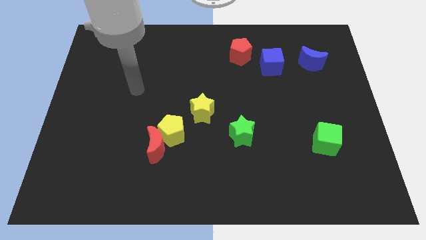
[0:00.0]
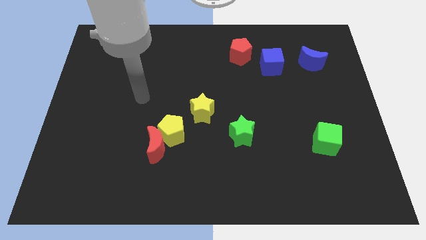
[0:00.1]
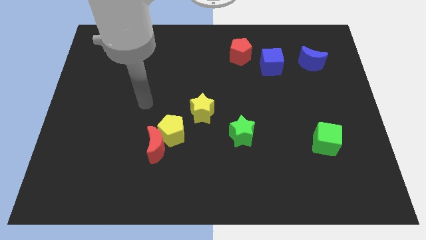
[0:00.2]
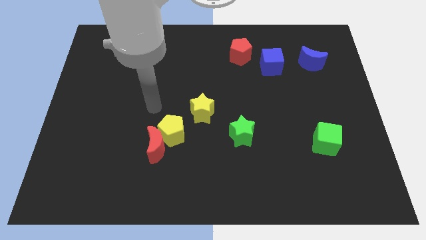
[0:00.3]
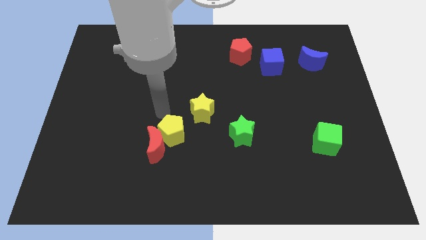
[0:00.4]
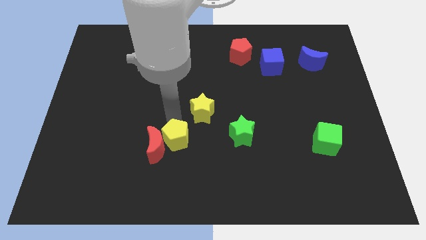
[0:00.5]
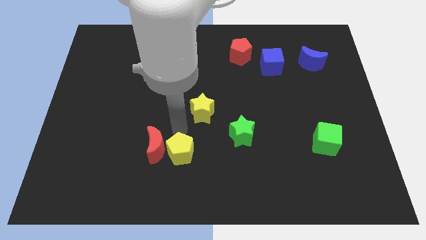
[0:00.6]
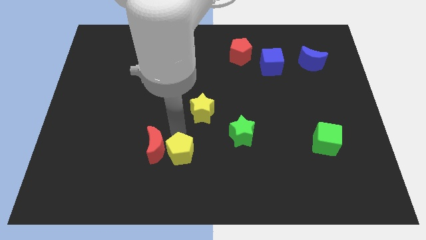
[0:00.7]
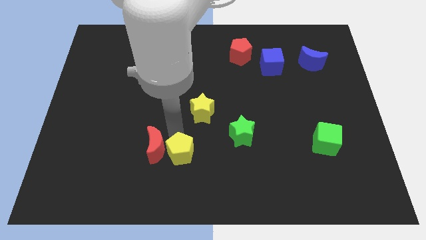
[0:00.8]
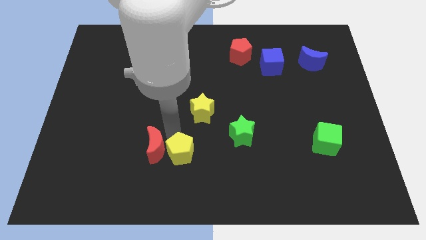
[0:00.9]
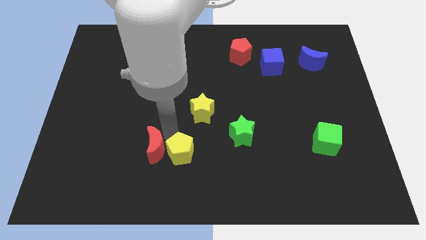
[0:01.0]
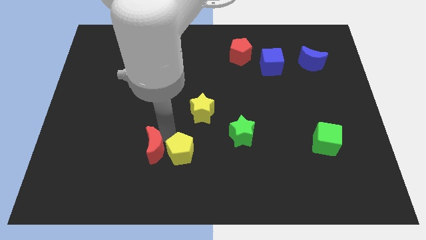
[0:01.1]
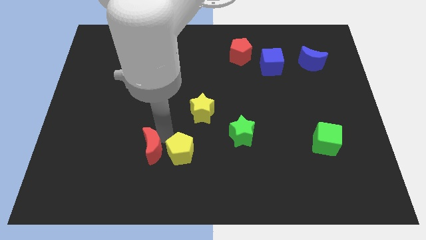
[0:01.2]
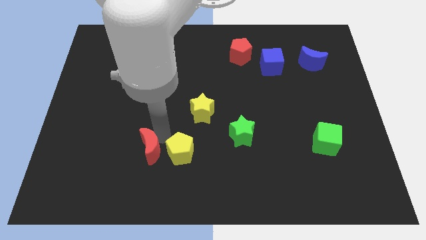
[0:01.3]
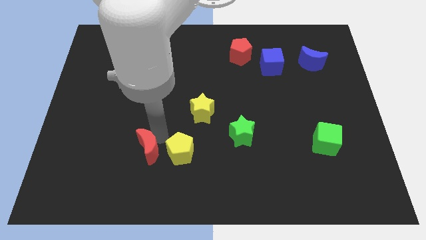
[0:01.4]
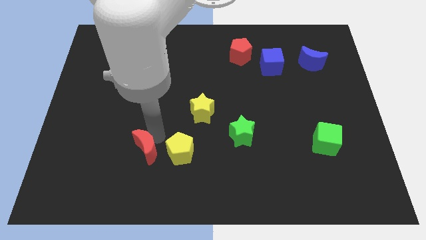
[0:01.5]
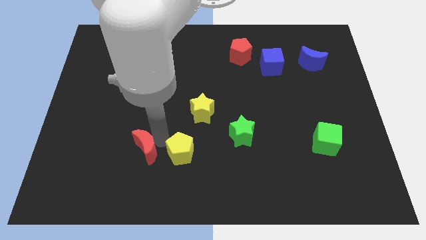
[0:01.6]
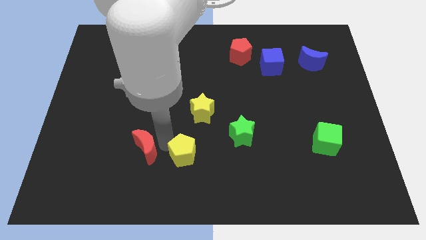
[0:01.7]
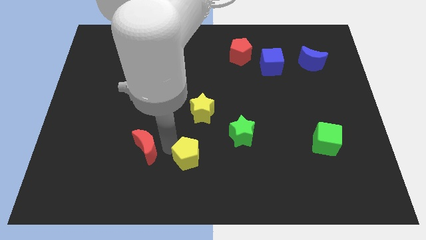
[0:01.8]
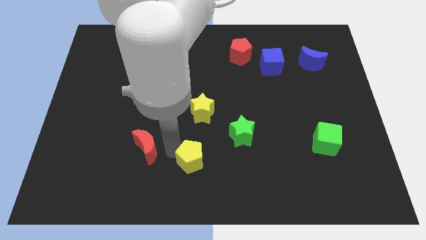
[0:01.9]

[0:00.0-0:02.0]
separate the red moon from the yellow pentagon

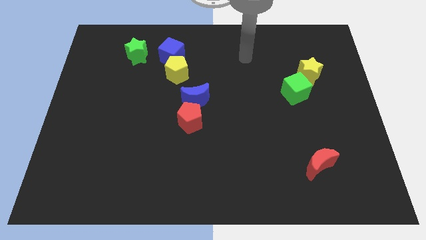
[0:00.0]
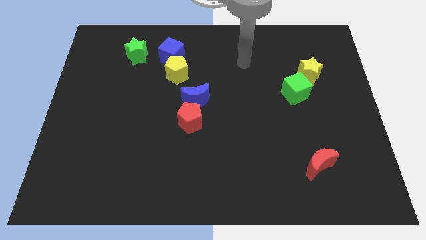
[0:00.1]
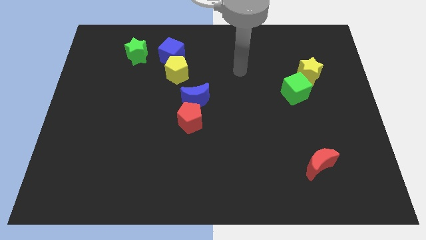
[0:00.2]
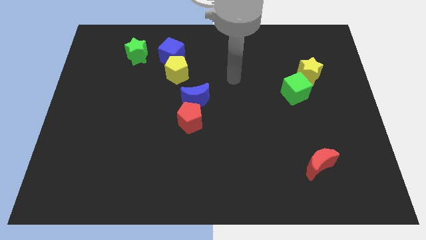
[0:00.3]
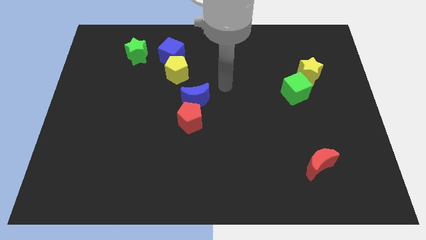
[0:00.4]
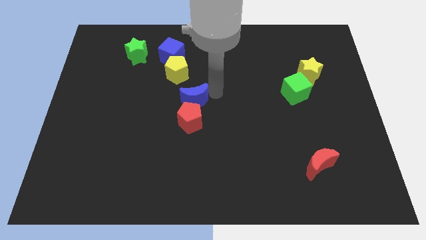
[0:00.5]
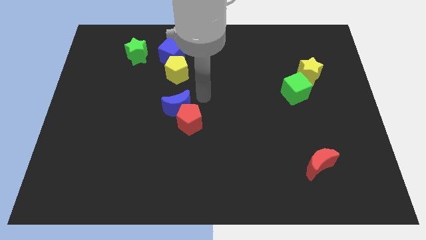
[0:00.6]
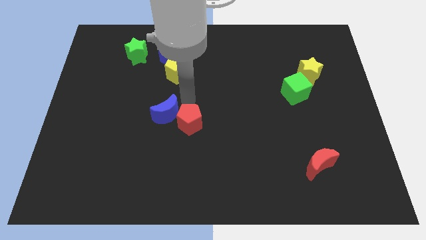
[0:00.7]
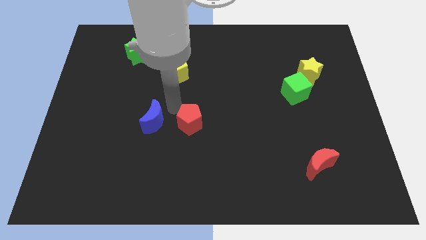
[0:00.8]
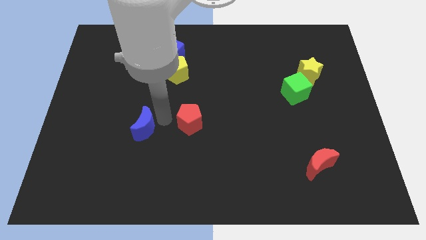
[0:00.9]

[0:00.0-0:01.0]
move the red pentagon away from the blue moon

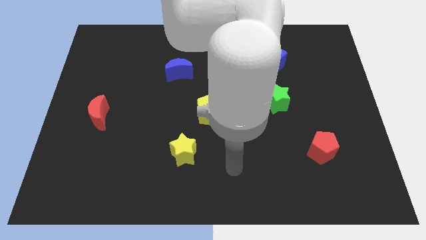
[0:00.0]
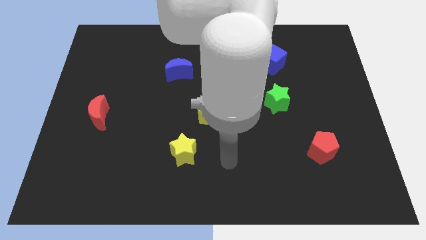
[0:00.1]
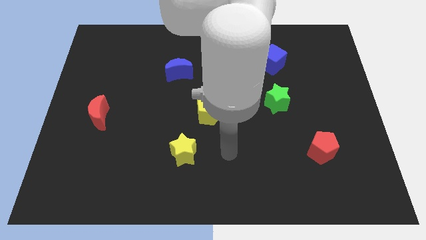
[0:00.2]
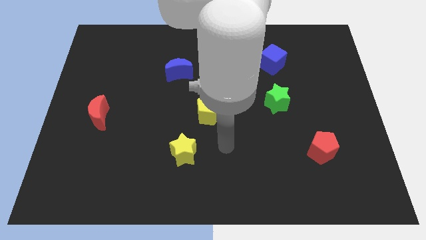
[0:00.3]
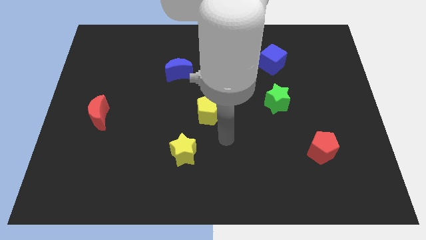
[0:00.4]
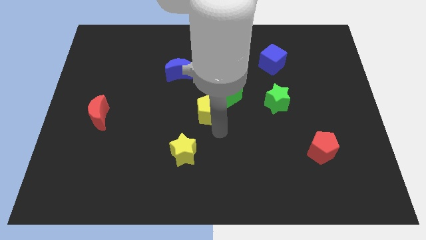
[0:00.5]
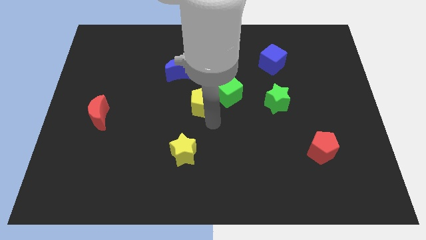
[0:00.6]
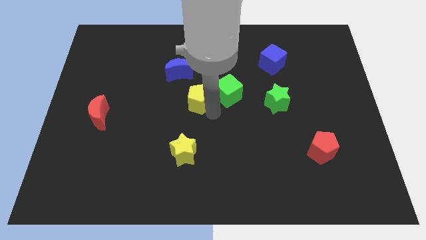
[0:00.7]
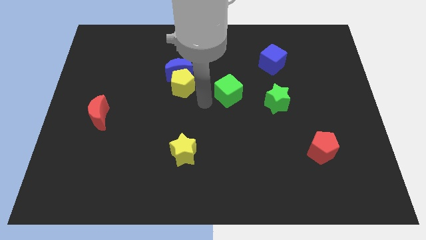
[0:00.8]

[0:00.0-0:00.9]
move the green cube away from the yellow pentagon

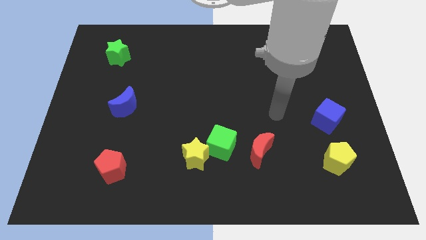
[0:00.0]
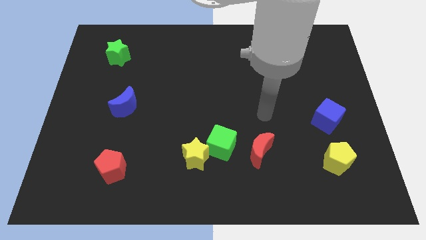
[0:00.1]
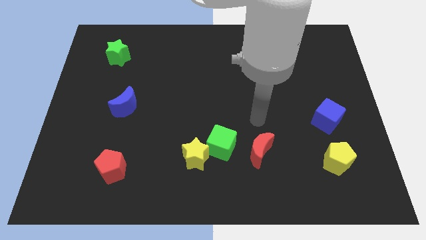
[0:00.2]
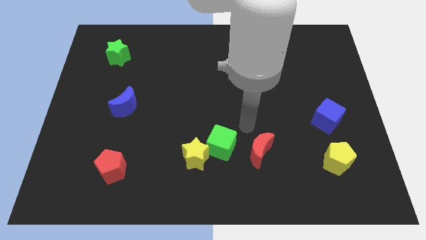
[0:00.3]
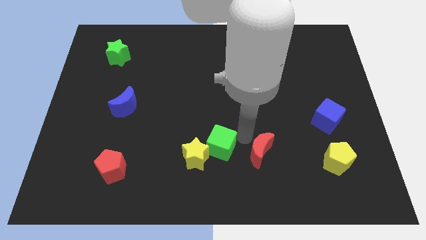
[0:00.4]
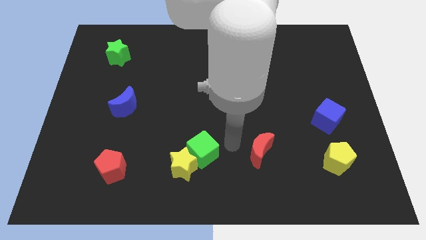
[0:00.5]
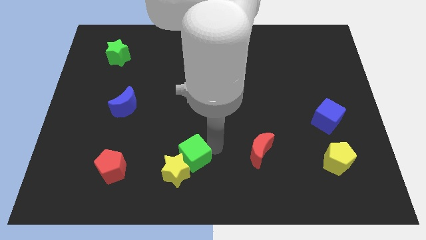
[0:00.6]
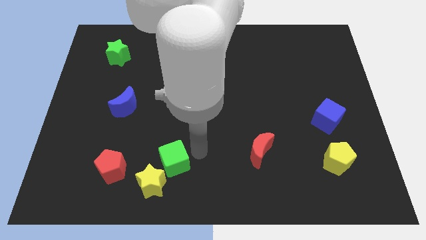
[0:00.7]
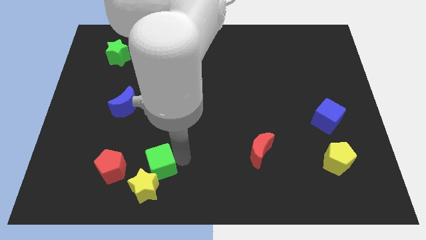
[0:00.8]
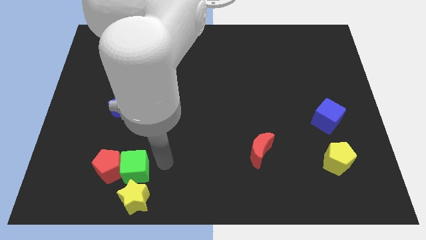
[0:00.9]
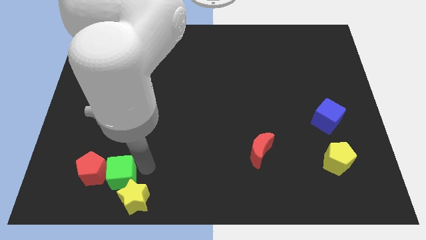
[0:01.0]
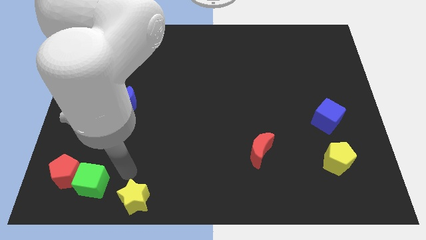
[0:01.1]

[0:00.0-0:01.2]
move the yellow star away from the green cube

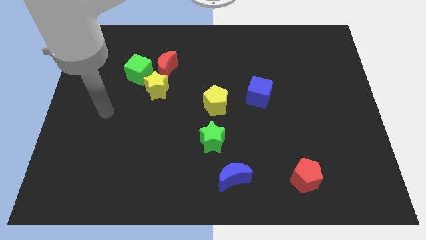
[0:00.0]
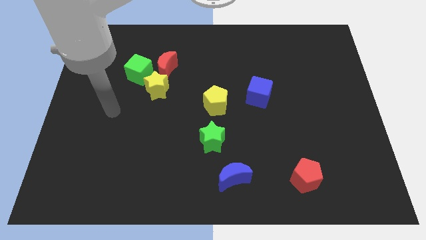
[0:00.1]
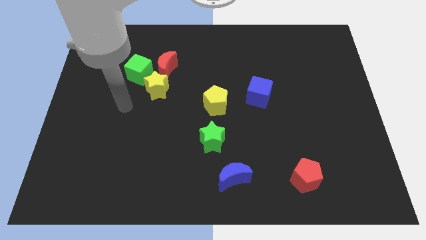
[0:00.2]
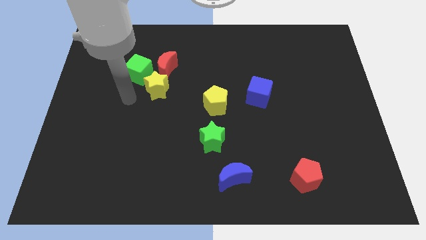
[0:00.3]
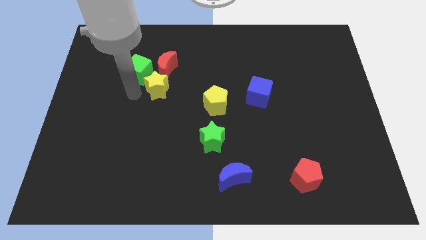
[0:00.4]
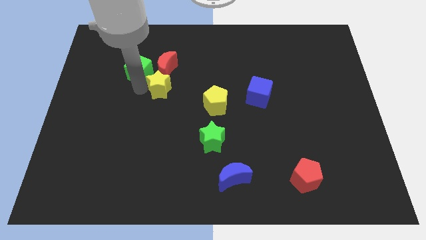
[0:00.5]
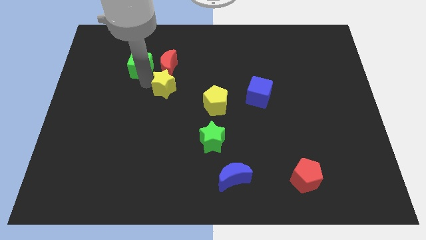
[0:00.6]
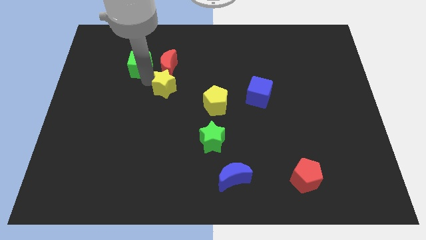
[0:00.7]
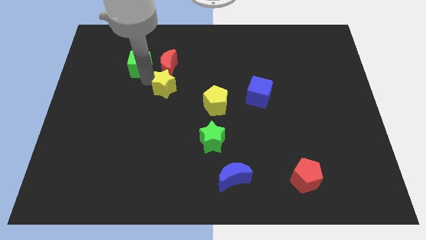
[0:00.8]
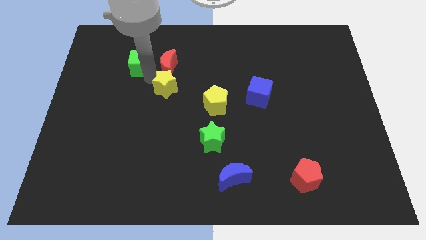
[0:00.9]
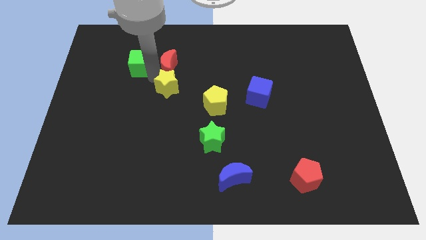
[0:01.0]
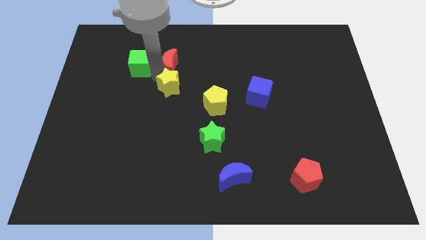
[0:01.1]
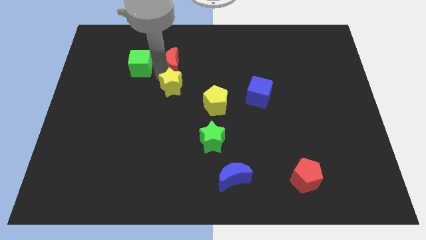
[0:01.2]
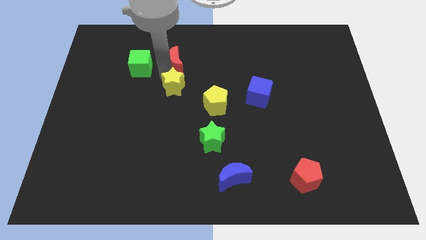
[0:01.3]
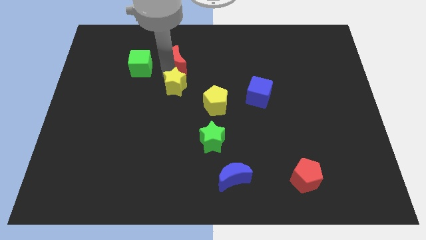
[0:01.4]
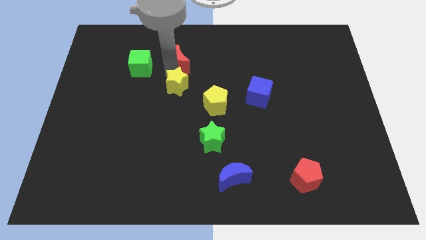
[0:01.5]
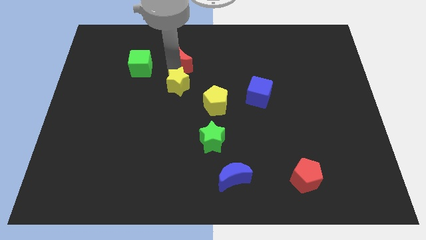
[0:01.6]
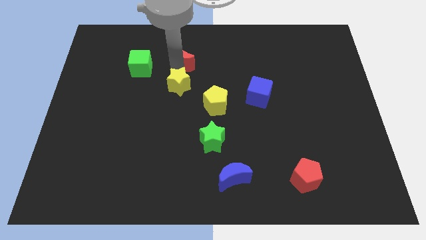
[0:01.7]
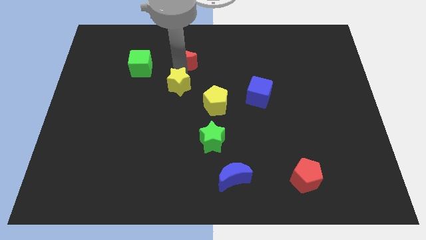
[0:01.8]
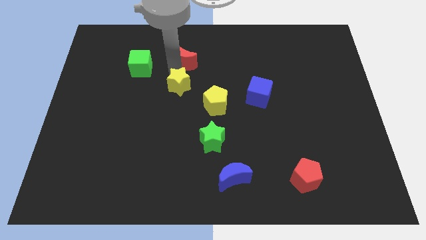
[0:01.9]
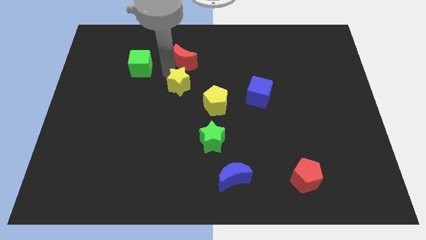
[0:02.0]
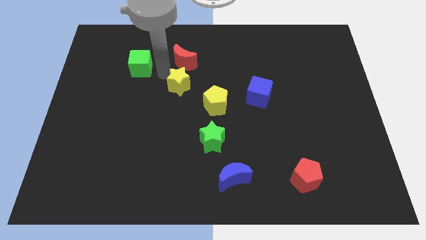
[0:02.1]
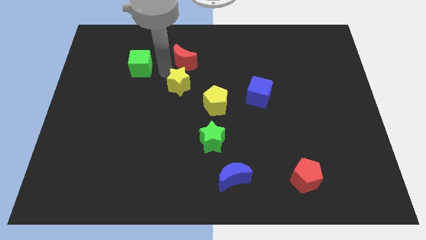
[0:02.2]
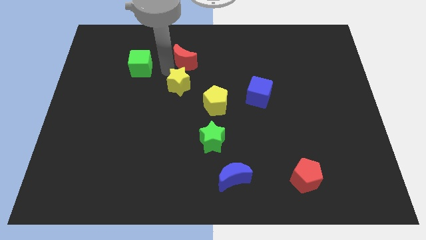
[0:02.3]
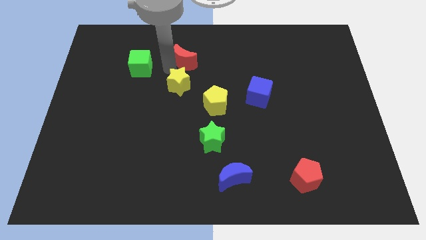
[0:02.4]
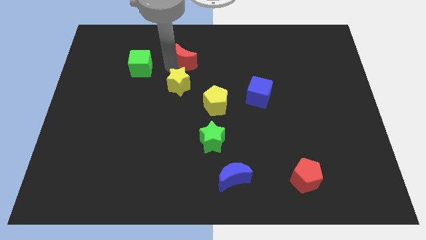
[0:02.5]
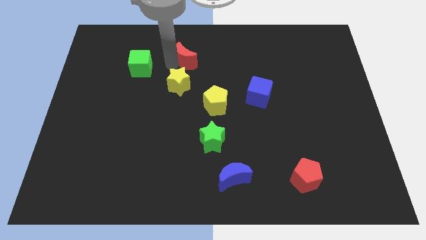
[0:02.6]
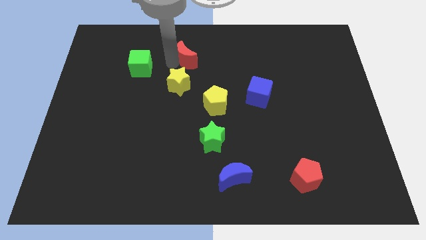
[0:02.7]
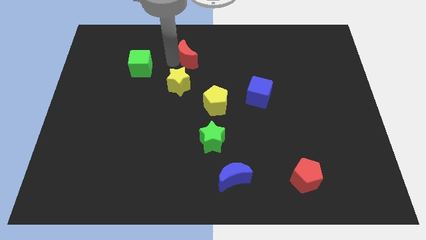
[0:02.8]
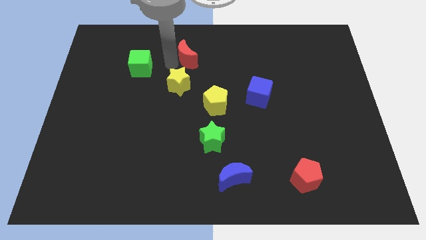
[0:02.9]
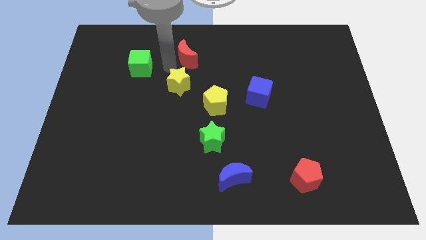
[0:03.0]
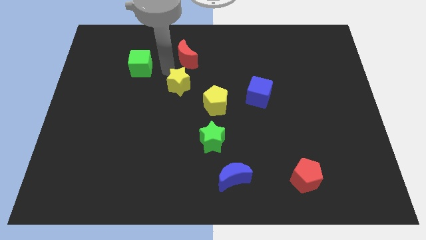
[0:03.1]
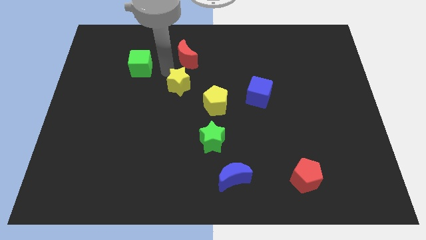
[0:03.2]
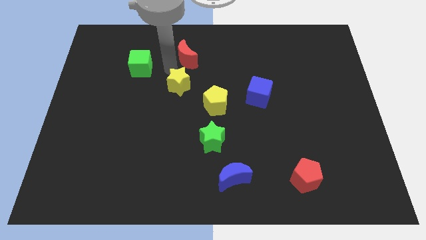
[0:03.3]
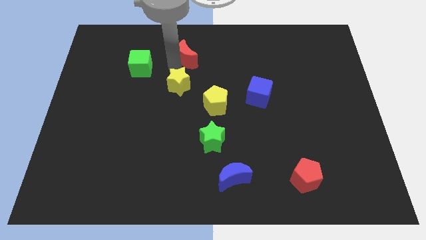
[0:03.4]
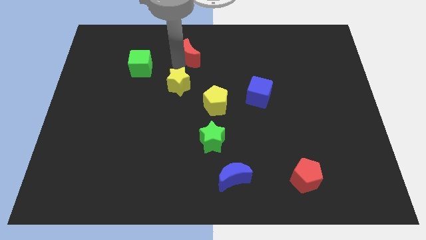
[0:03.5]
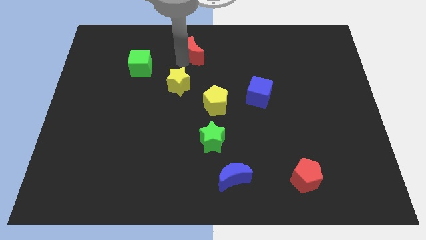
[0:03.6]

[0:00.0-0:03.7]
pull the red moon apart from the green cube and yellow star

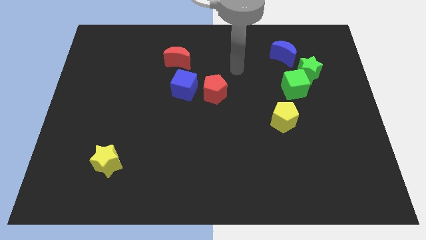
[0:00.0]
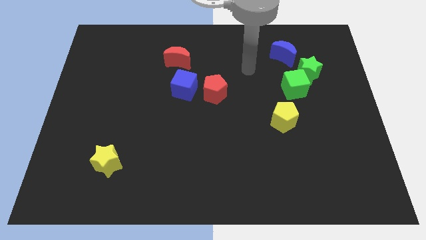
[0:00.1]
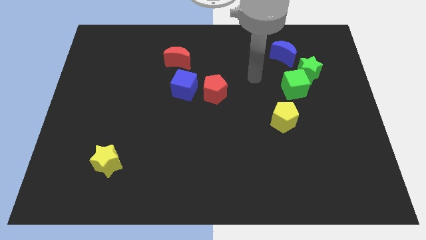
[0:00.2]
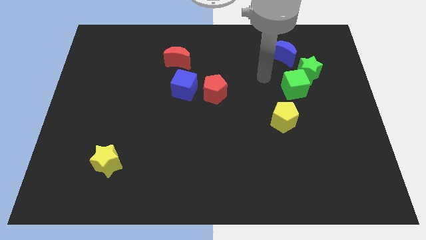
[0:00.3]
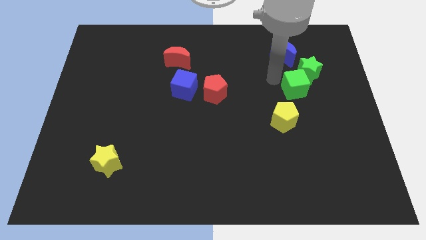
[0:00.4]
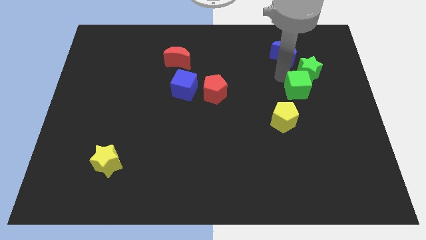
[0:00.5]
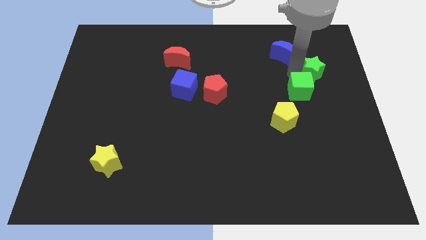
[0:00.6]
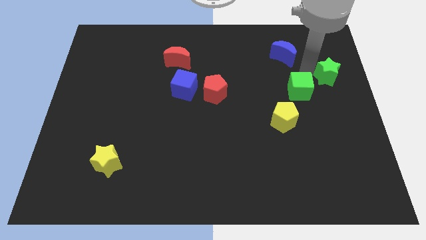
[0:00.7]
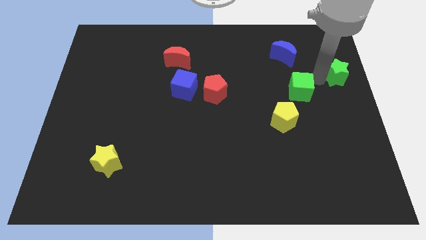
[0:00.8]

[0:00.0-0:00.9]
pull the green cube apart from the green star
